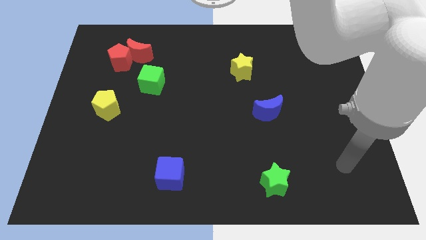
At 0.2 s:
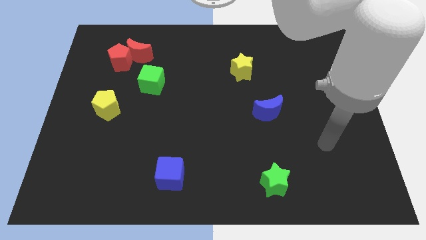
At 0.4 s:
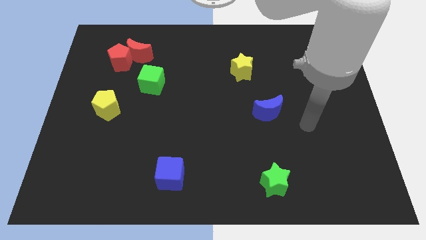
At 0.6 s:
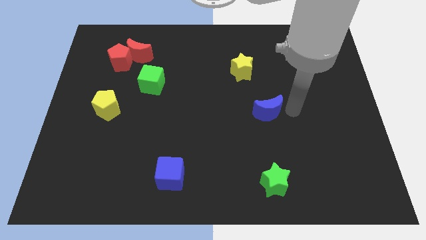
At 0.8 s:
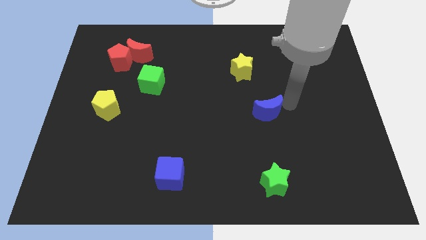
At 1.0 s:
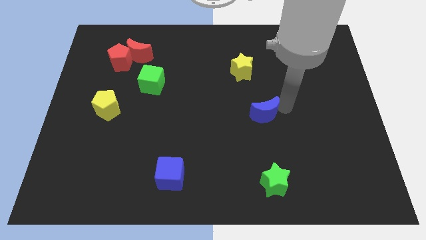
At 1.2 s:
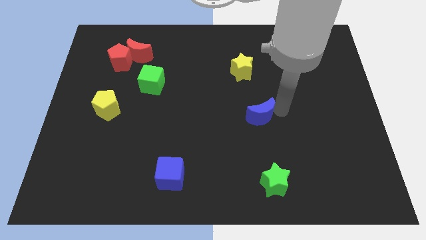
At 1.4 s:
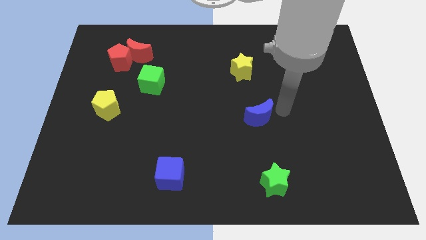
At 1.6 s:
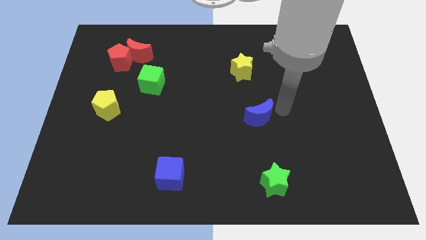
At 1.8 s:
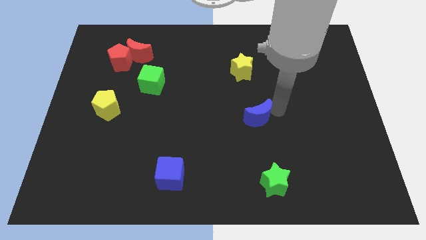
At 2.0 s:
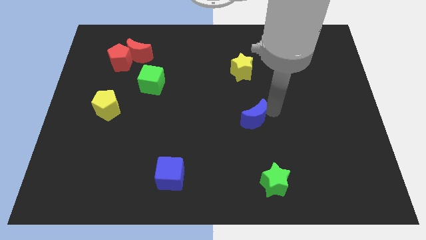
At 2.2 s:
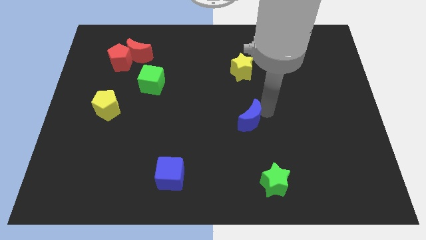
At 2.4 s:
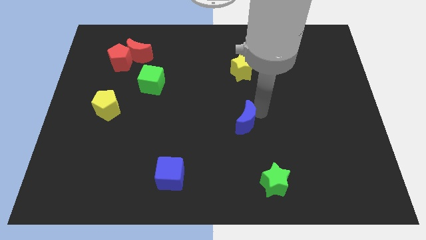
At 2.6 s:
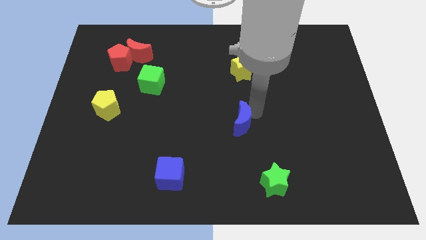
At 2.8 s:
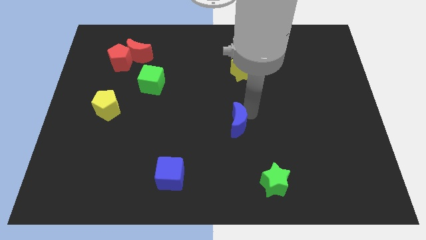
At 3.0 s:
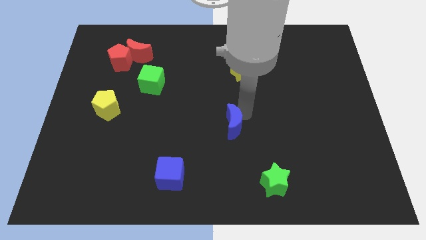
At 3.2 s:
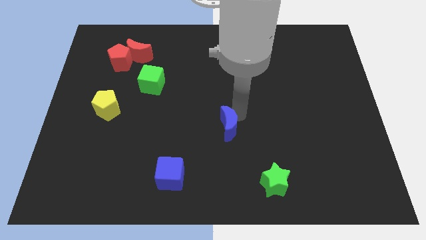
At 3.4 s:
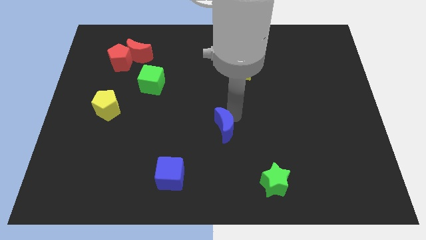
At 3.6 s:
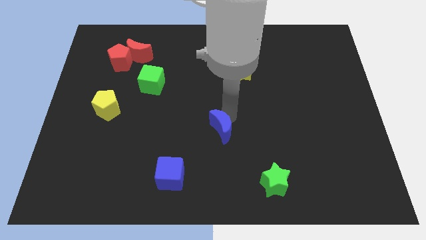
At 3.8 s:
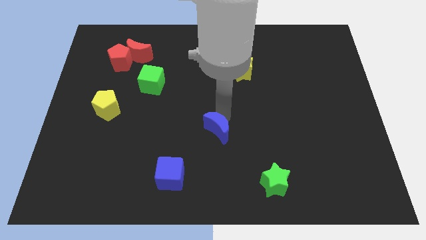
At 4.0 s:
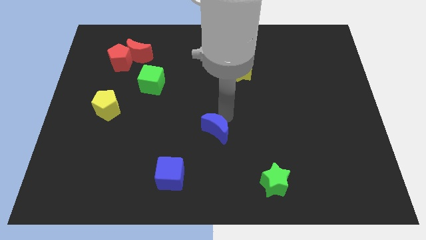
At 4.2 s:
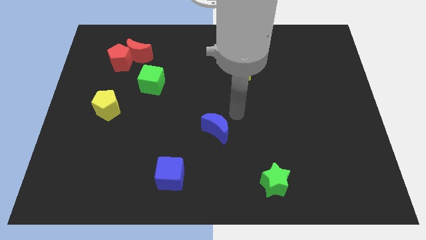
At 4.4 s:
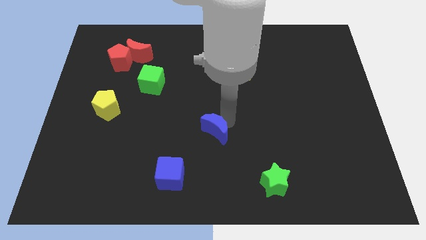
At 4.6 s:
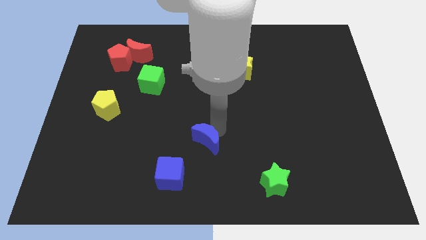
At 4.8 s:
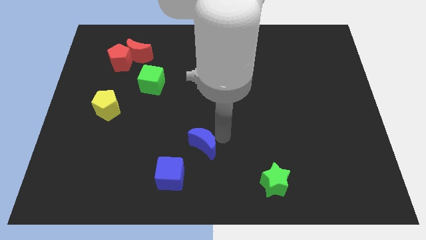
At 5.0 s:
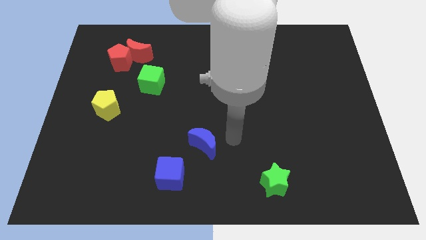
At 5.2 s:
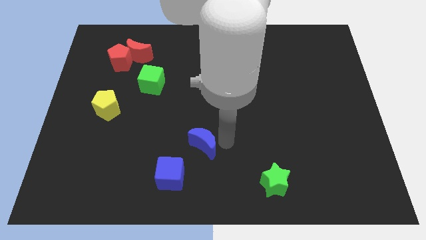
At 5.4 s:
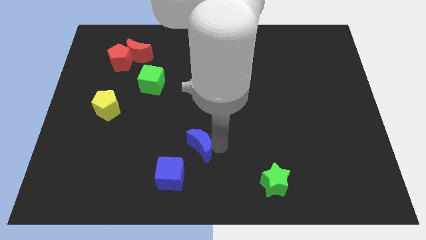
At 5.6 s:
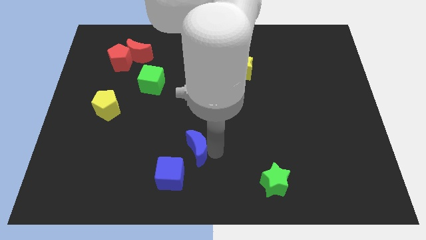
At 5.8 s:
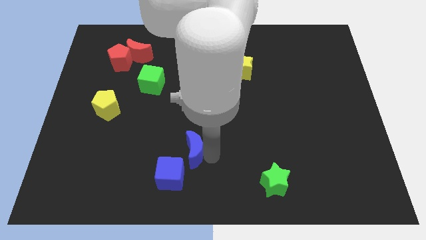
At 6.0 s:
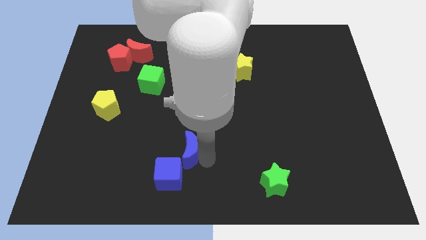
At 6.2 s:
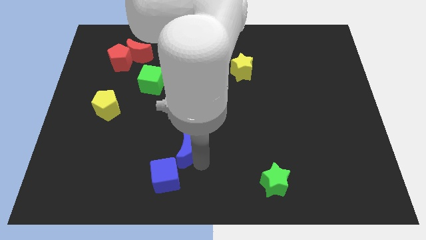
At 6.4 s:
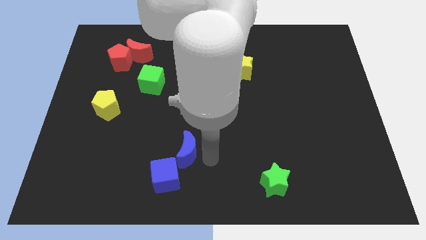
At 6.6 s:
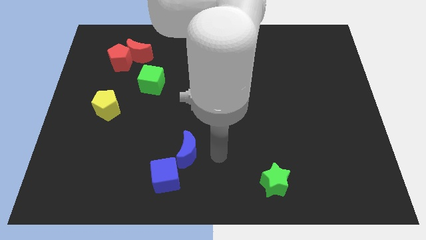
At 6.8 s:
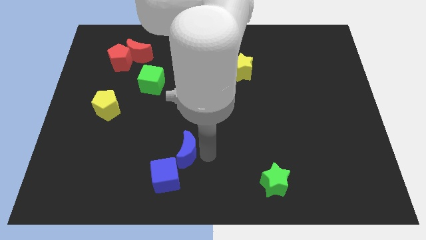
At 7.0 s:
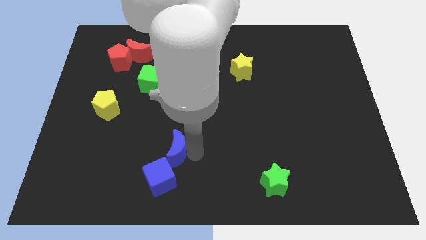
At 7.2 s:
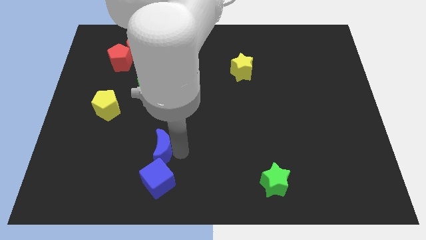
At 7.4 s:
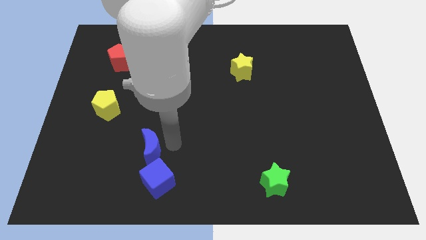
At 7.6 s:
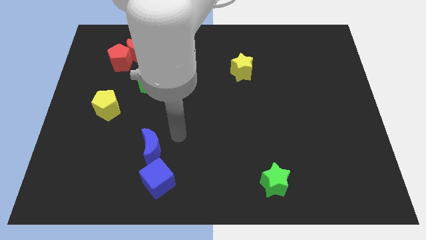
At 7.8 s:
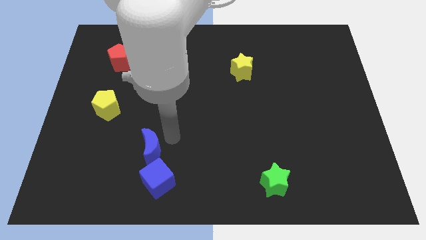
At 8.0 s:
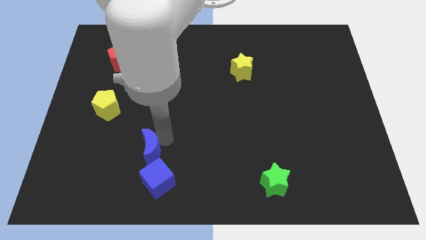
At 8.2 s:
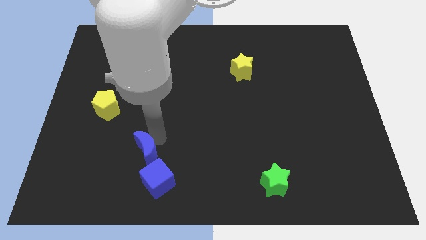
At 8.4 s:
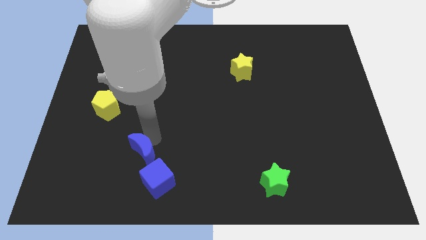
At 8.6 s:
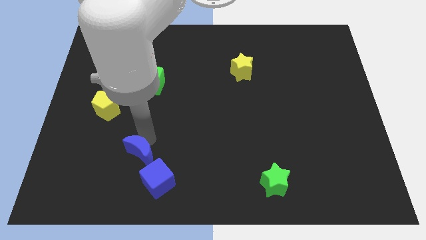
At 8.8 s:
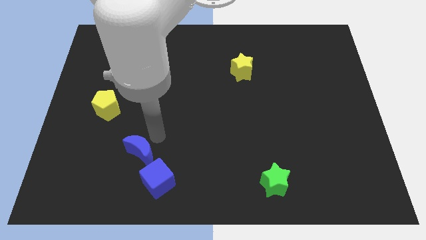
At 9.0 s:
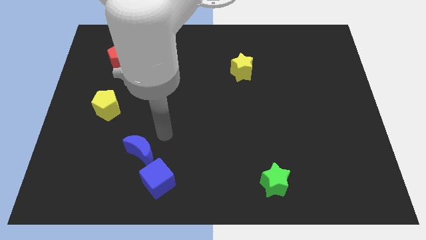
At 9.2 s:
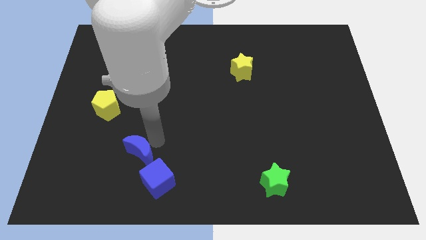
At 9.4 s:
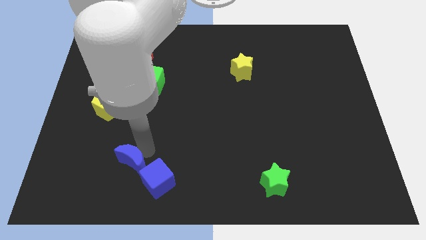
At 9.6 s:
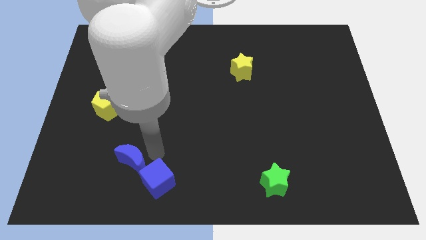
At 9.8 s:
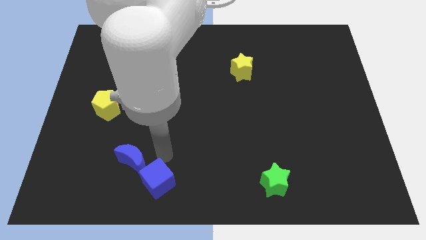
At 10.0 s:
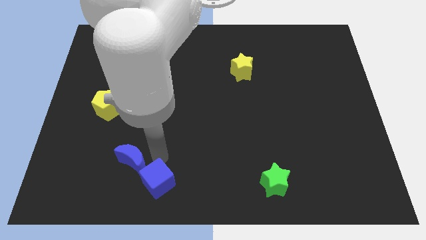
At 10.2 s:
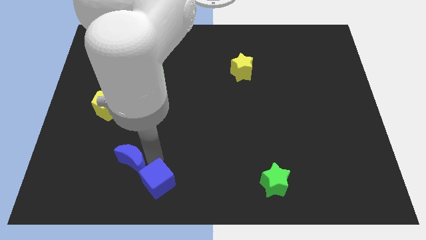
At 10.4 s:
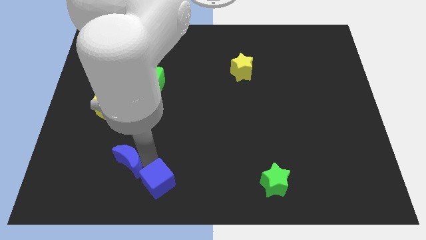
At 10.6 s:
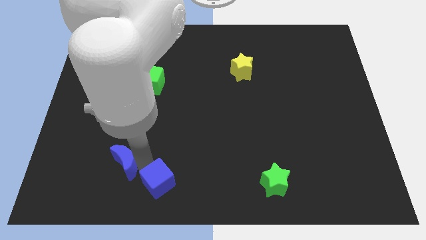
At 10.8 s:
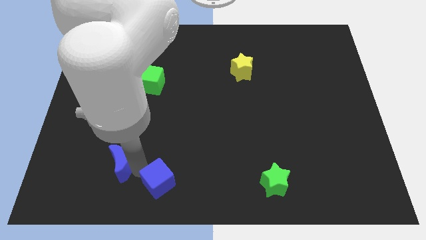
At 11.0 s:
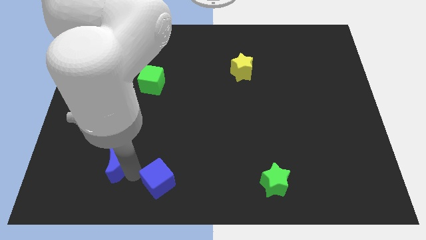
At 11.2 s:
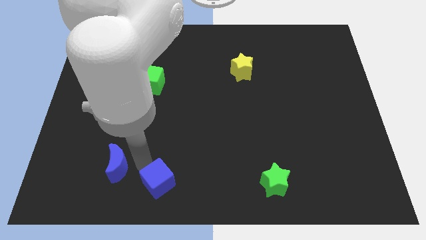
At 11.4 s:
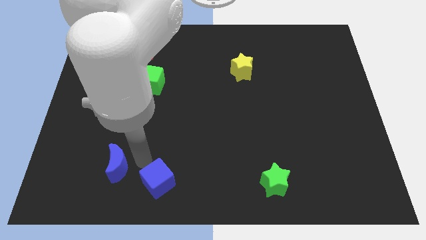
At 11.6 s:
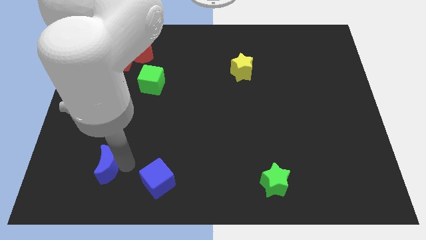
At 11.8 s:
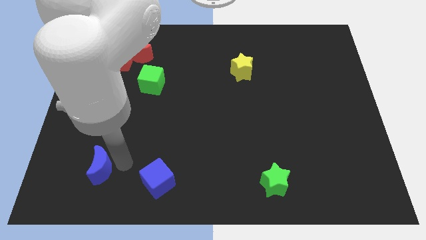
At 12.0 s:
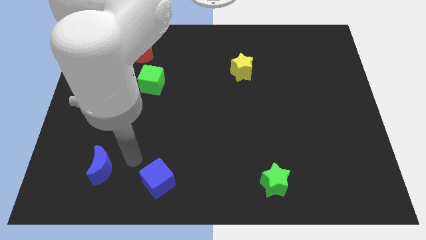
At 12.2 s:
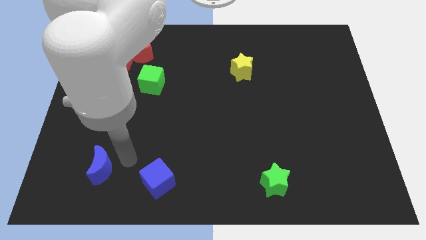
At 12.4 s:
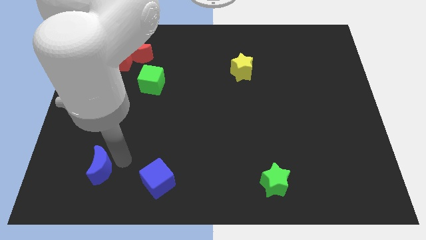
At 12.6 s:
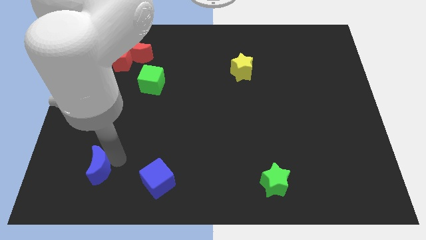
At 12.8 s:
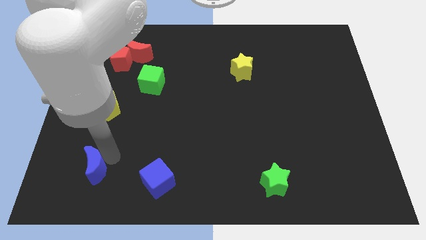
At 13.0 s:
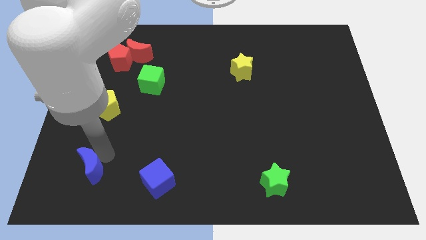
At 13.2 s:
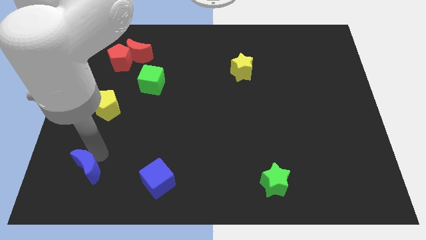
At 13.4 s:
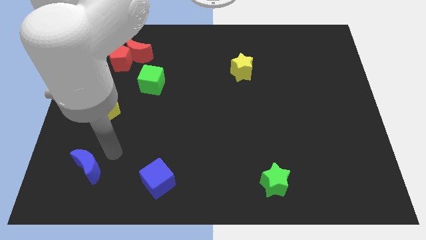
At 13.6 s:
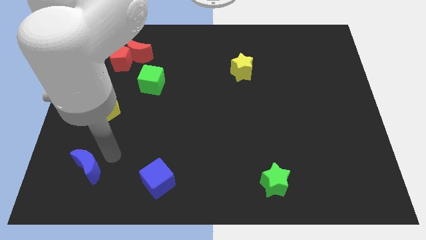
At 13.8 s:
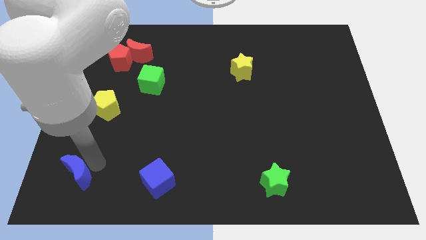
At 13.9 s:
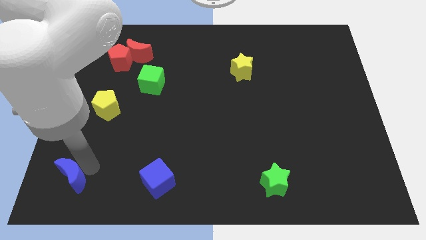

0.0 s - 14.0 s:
slide the blue moon to the bottom left corner
